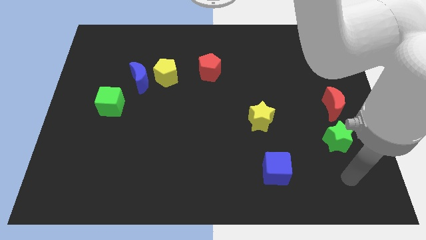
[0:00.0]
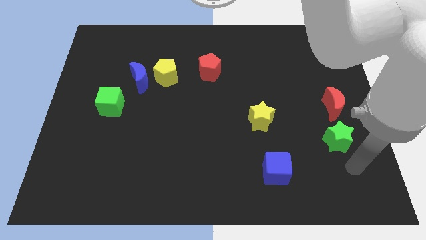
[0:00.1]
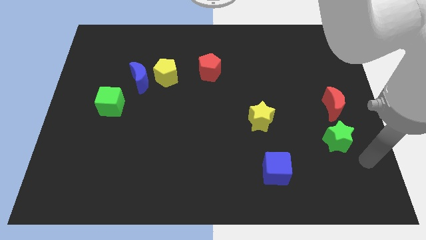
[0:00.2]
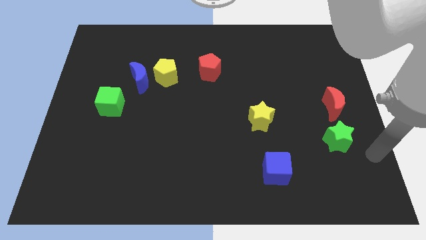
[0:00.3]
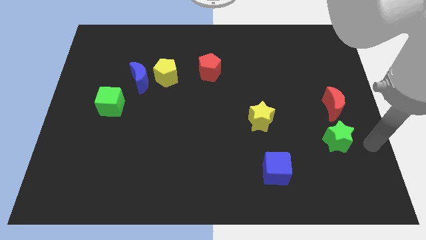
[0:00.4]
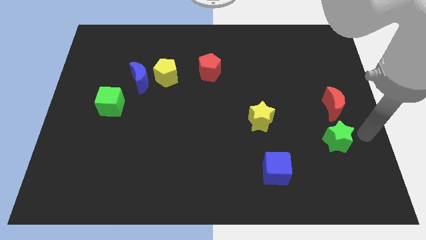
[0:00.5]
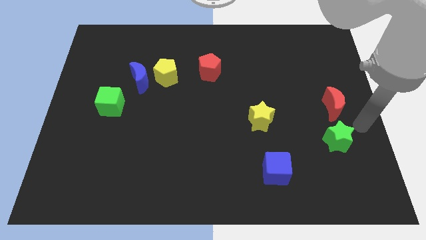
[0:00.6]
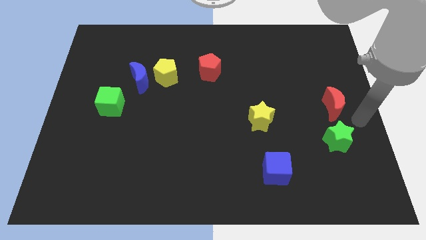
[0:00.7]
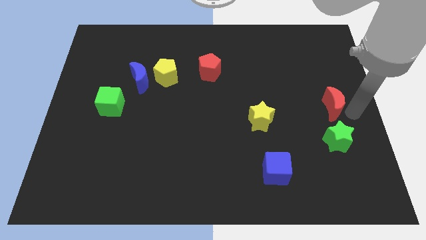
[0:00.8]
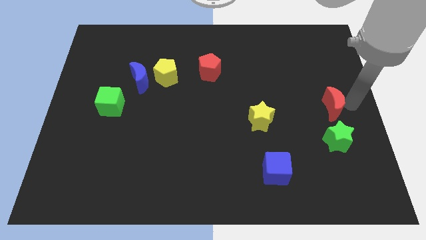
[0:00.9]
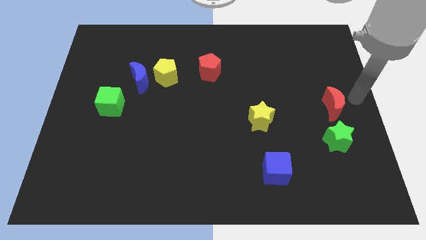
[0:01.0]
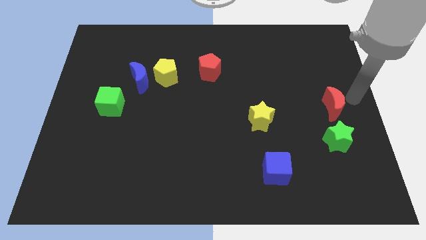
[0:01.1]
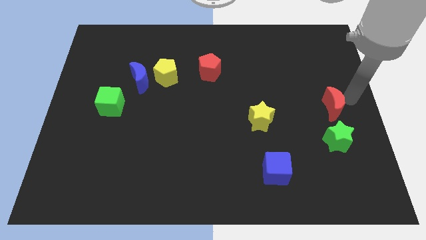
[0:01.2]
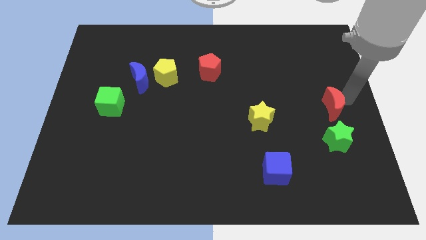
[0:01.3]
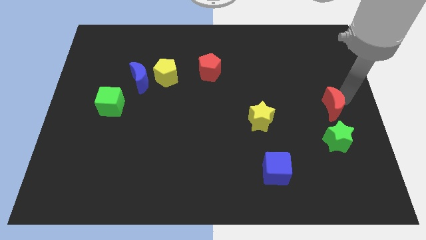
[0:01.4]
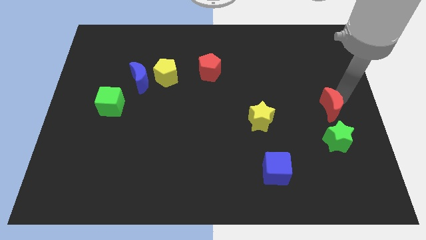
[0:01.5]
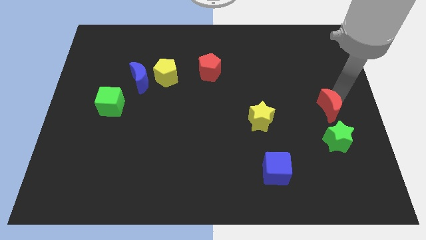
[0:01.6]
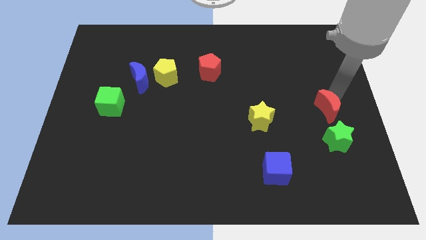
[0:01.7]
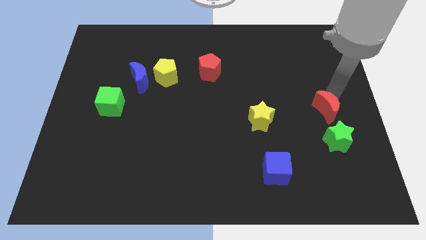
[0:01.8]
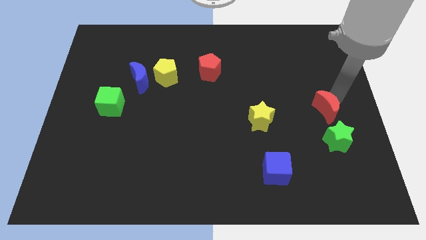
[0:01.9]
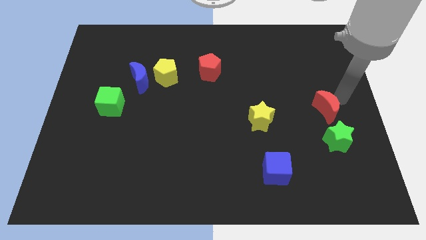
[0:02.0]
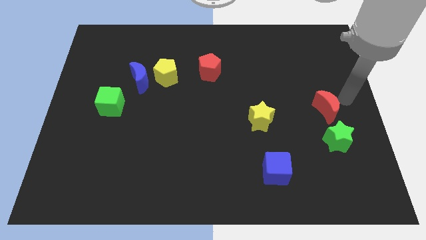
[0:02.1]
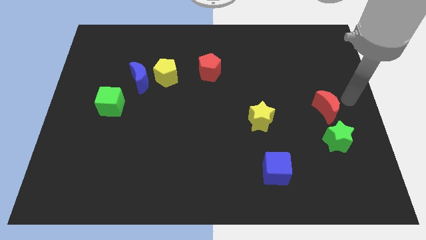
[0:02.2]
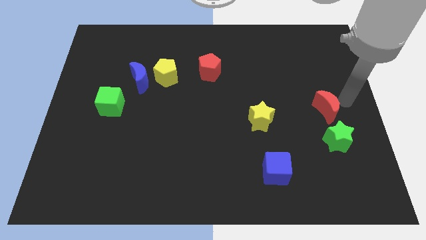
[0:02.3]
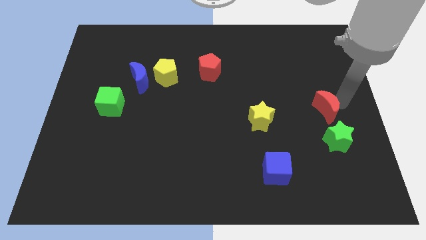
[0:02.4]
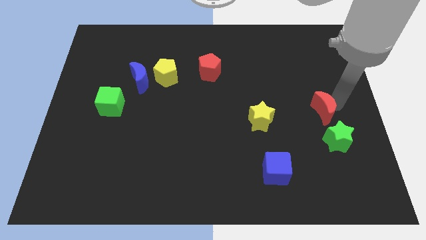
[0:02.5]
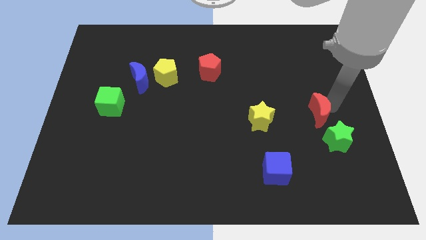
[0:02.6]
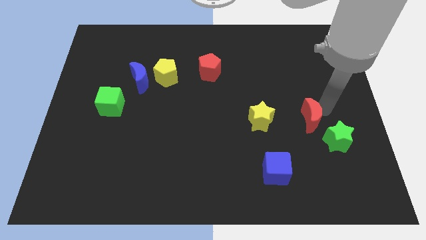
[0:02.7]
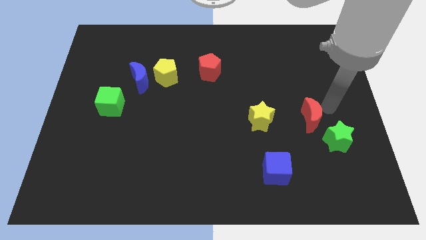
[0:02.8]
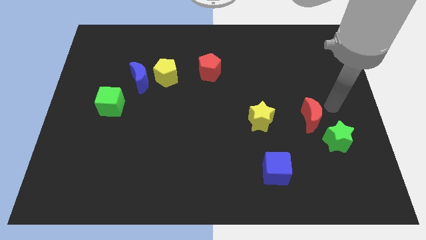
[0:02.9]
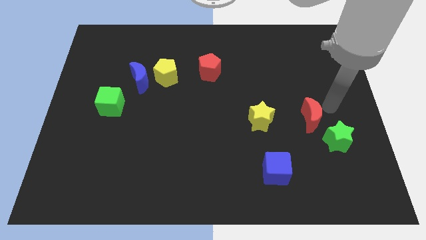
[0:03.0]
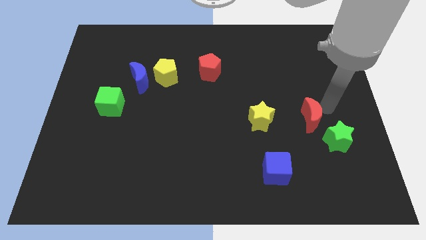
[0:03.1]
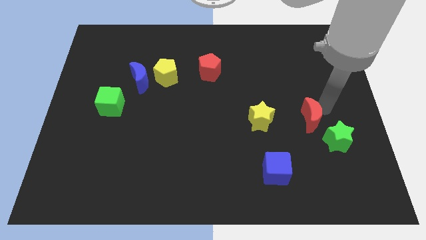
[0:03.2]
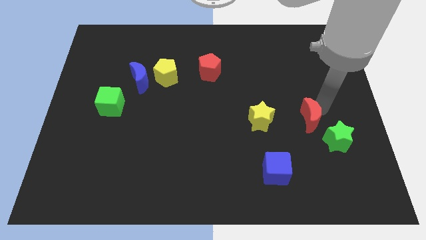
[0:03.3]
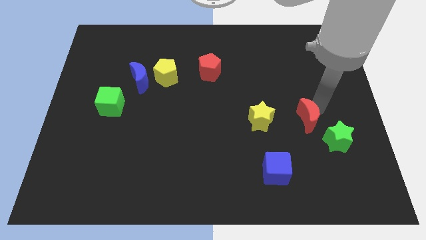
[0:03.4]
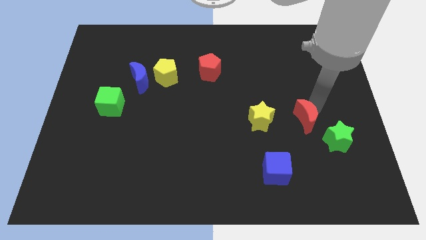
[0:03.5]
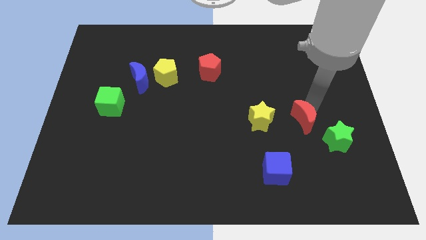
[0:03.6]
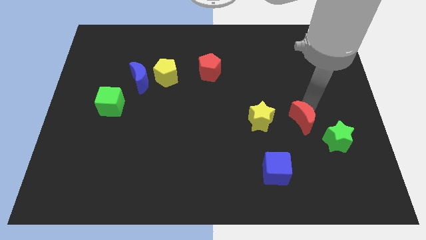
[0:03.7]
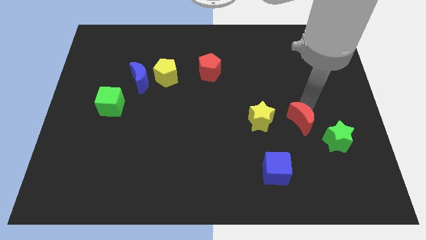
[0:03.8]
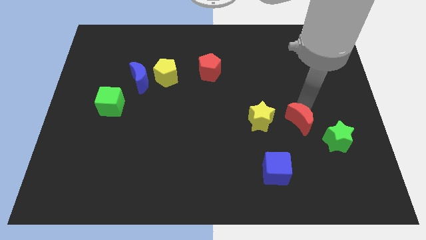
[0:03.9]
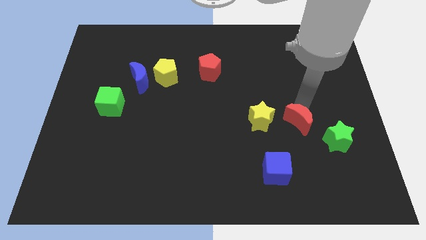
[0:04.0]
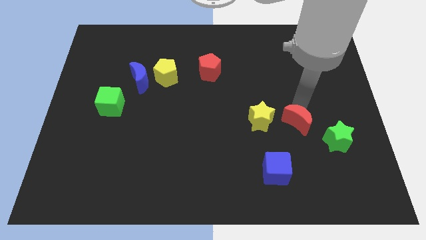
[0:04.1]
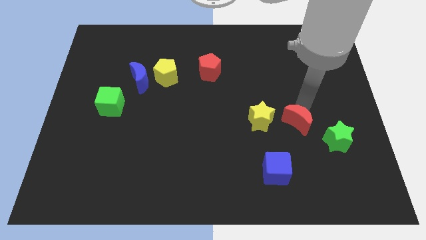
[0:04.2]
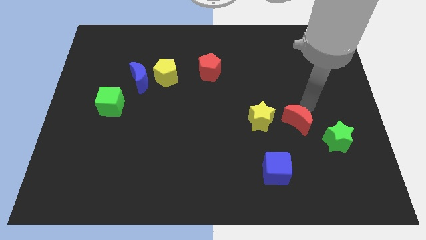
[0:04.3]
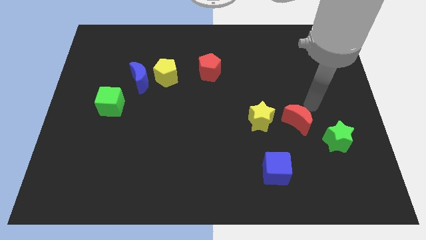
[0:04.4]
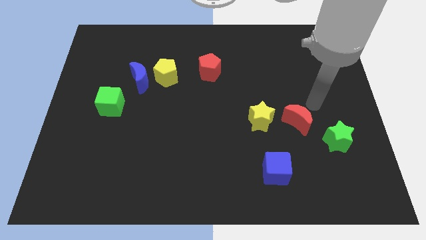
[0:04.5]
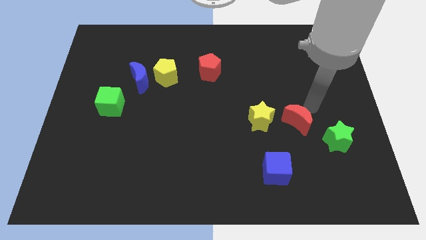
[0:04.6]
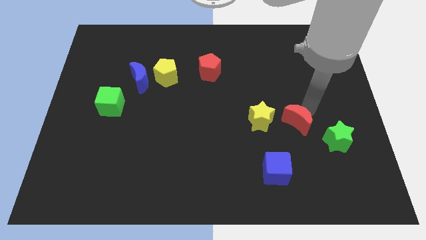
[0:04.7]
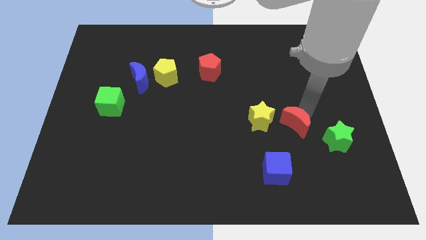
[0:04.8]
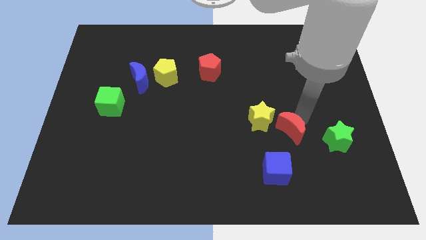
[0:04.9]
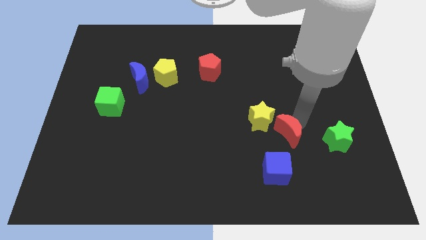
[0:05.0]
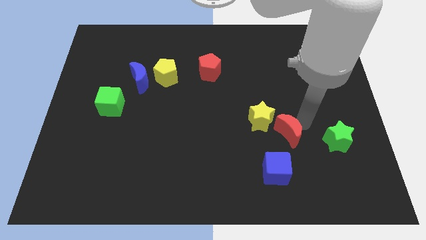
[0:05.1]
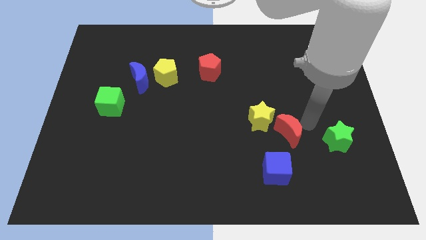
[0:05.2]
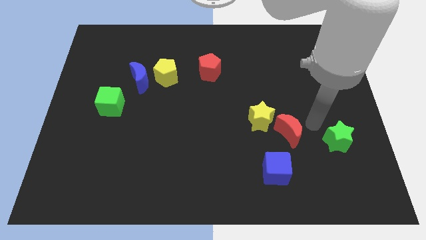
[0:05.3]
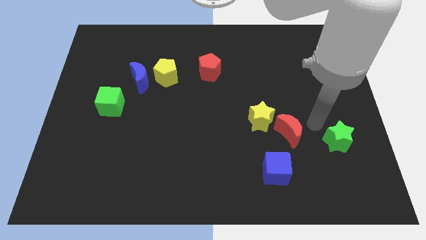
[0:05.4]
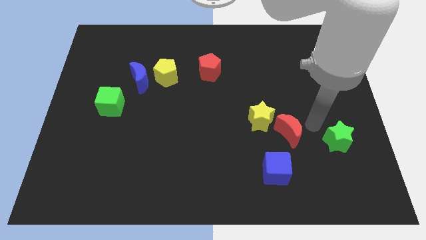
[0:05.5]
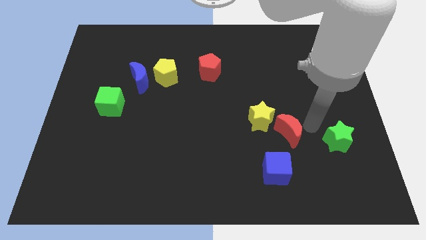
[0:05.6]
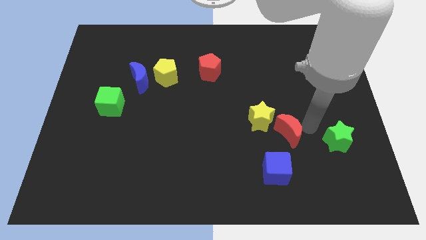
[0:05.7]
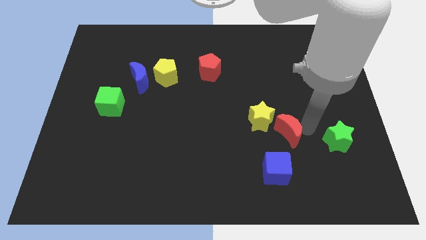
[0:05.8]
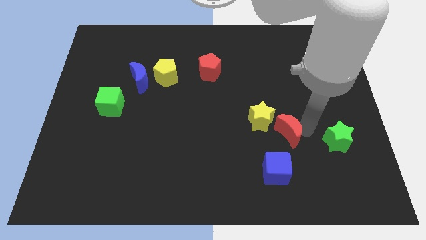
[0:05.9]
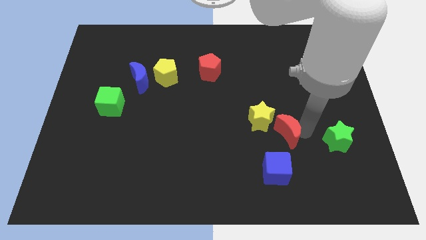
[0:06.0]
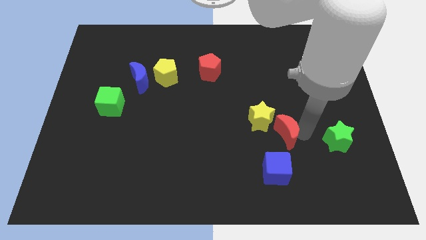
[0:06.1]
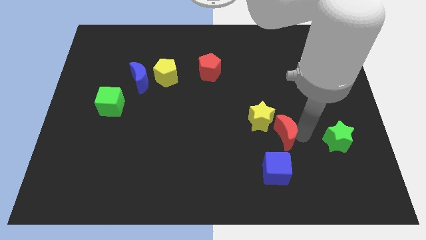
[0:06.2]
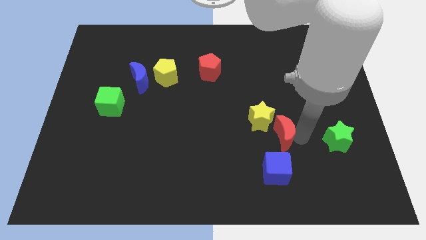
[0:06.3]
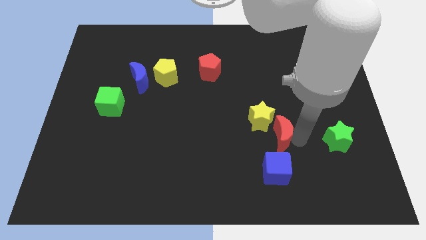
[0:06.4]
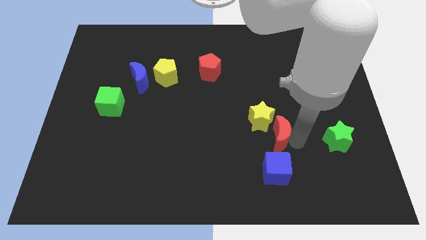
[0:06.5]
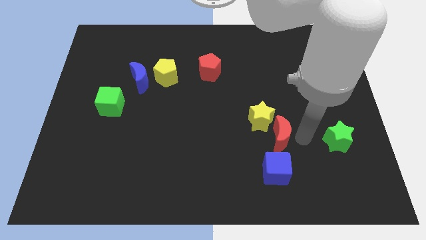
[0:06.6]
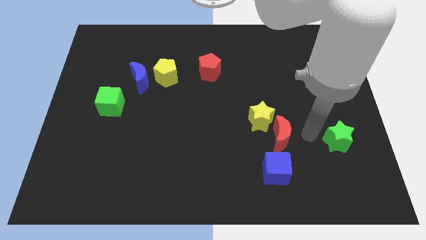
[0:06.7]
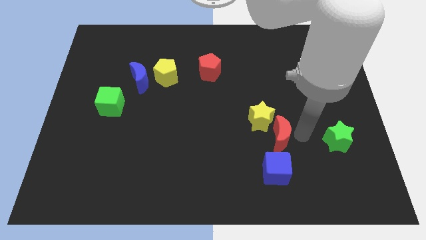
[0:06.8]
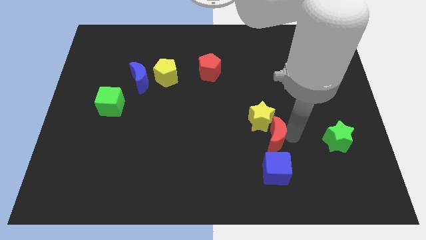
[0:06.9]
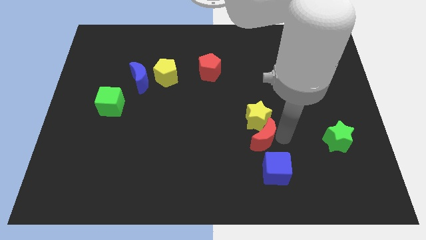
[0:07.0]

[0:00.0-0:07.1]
push the red moon to the bottom left side of the yellow star
